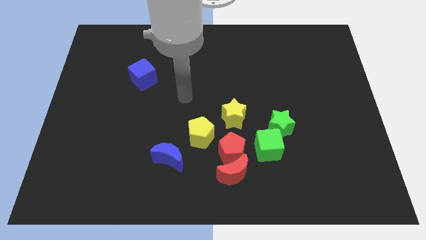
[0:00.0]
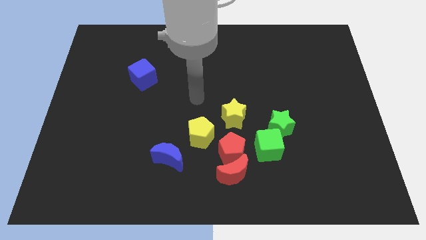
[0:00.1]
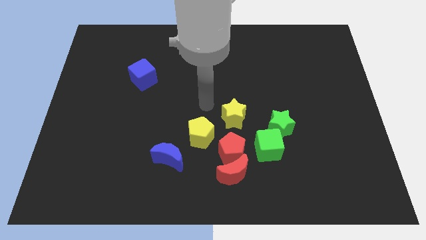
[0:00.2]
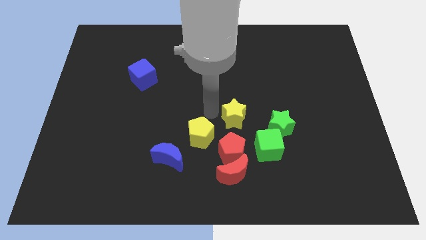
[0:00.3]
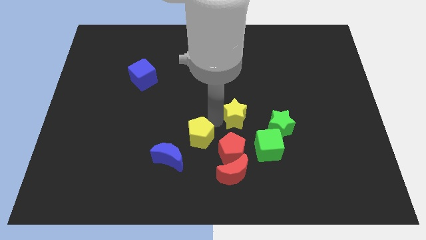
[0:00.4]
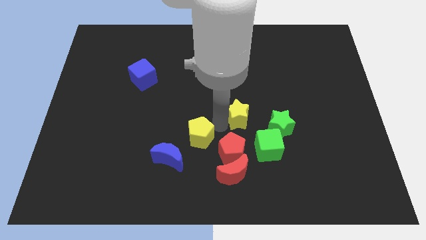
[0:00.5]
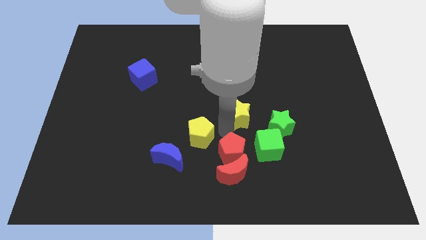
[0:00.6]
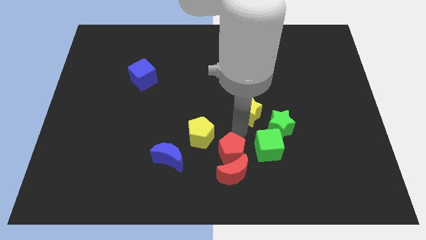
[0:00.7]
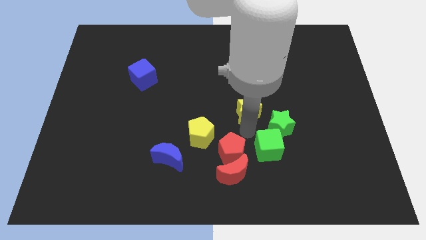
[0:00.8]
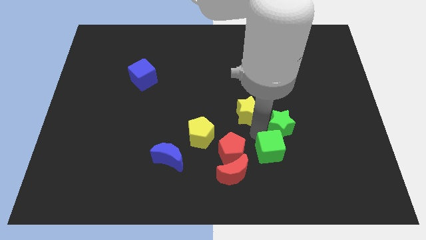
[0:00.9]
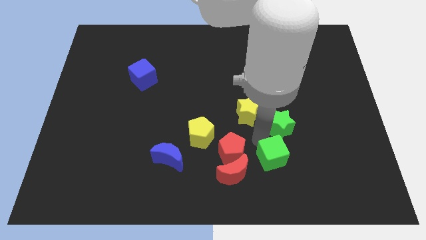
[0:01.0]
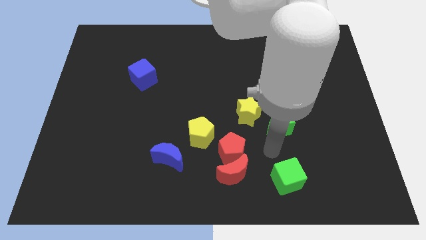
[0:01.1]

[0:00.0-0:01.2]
move the green star away from the green cube

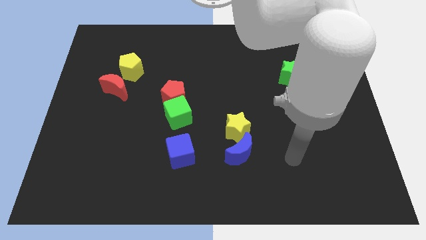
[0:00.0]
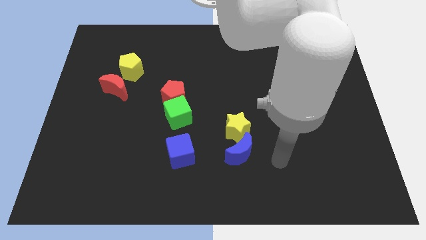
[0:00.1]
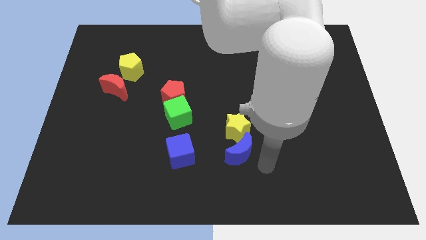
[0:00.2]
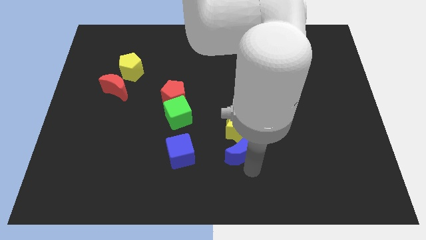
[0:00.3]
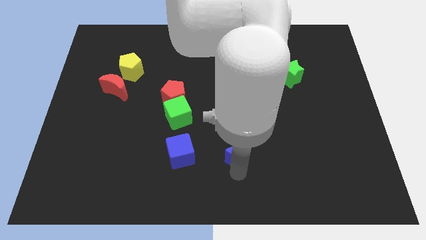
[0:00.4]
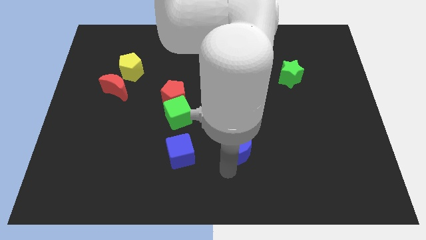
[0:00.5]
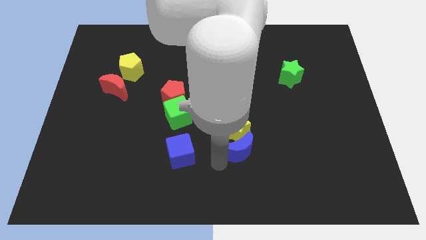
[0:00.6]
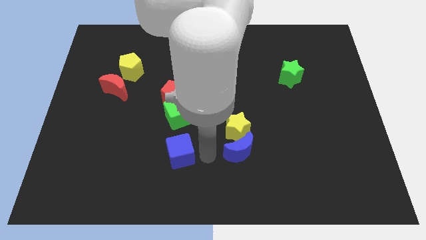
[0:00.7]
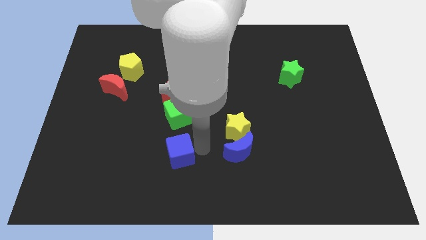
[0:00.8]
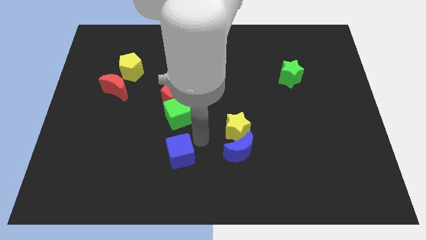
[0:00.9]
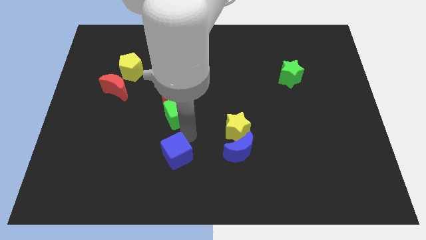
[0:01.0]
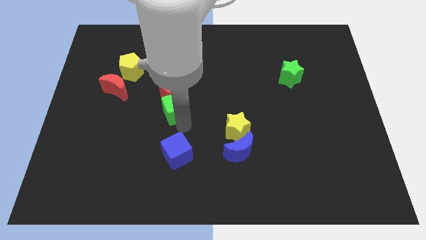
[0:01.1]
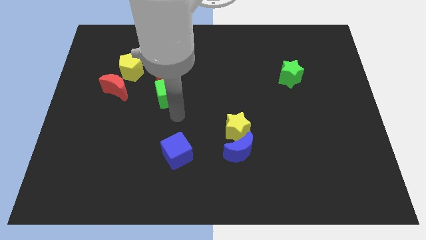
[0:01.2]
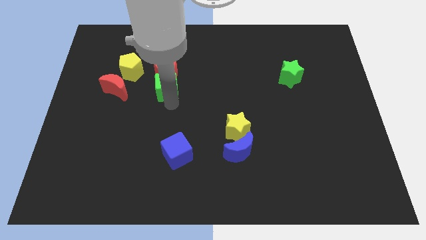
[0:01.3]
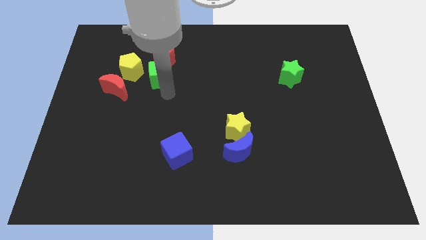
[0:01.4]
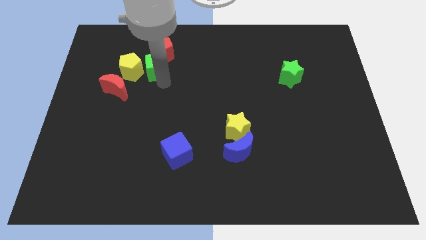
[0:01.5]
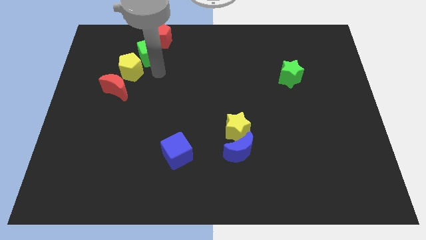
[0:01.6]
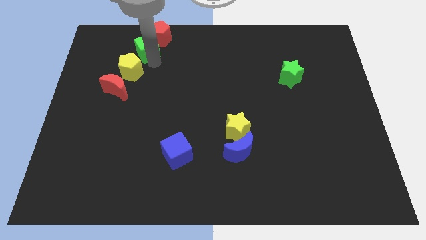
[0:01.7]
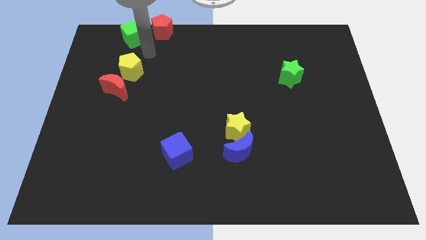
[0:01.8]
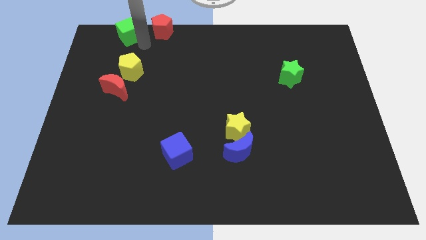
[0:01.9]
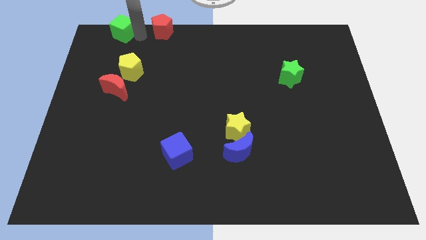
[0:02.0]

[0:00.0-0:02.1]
move the red pentagon away from the green cube

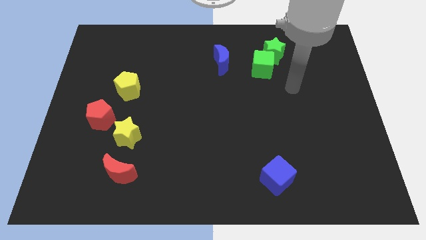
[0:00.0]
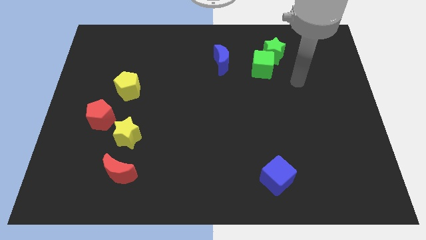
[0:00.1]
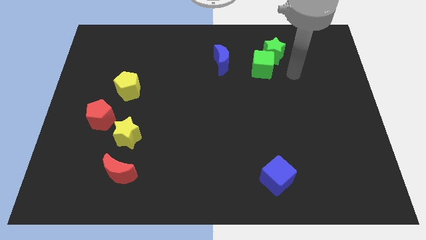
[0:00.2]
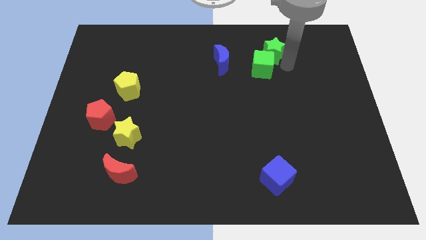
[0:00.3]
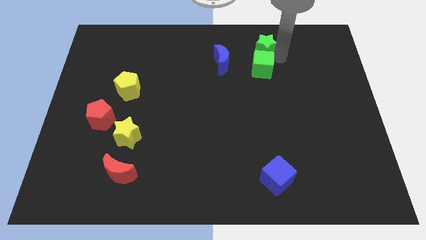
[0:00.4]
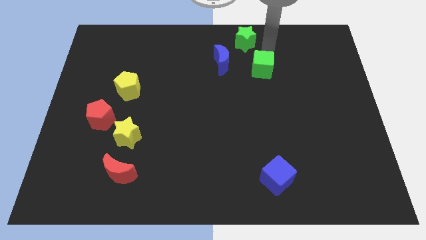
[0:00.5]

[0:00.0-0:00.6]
pull the green cube apart from the green star

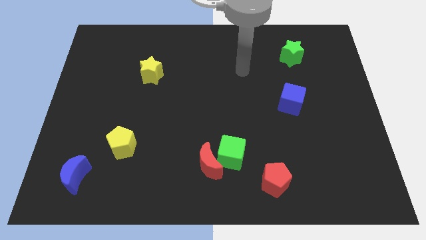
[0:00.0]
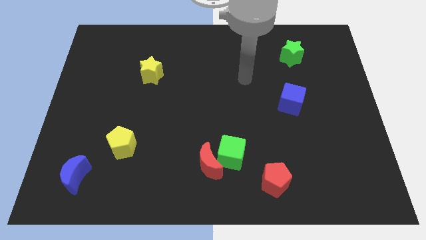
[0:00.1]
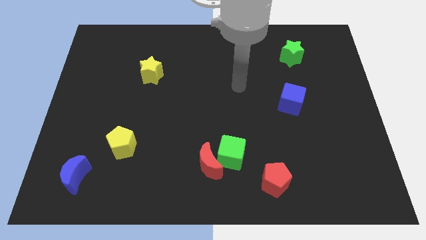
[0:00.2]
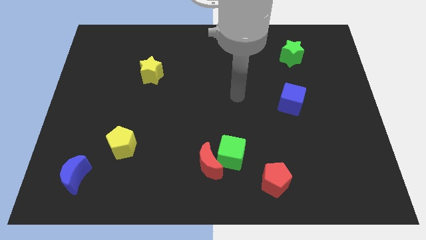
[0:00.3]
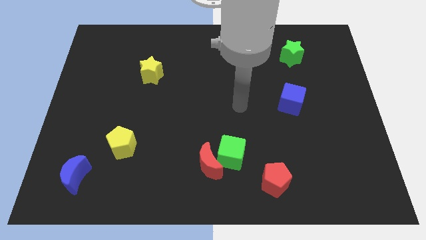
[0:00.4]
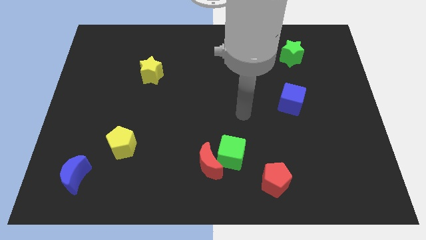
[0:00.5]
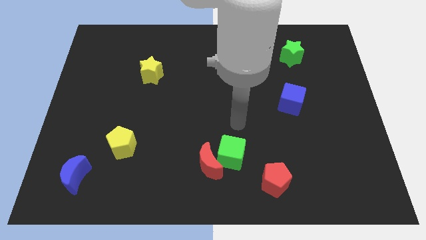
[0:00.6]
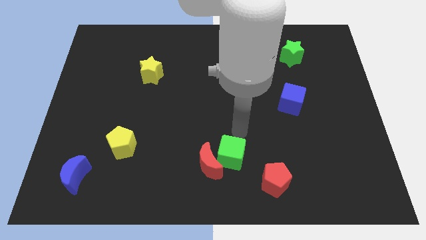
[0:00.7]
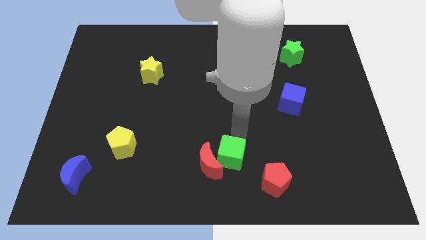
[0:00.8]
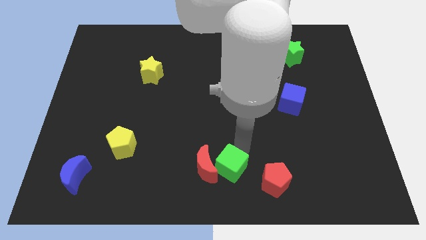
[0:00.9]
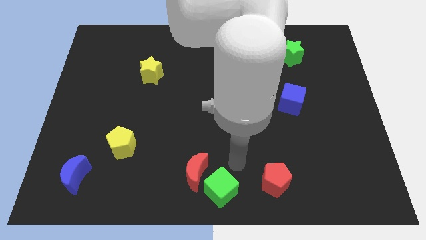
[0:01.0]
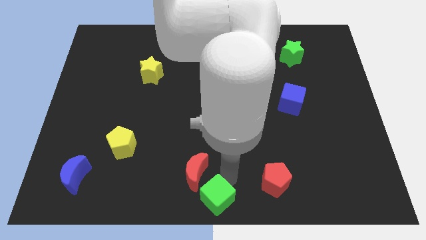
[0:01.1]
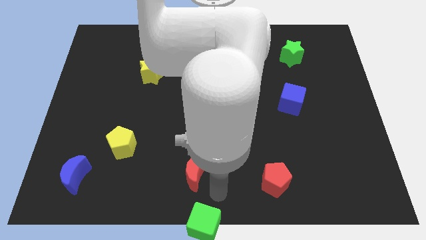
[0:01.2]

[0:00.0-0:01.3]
pull the red moon apart from the green cube

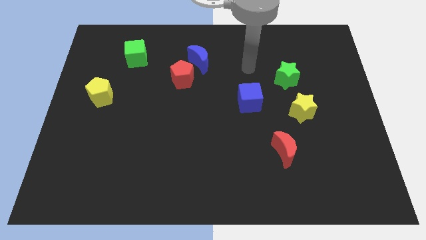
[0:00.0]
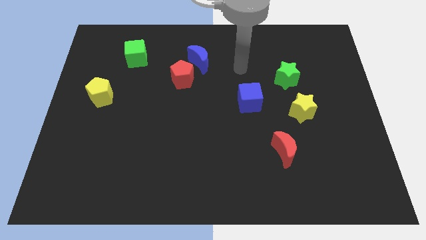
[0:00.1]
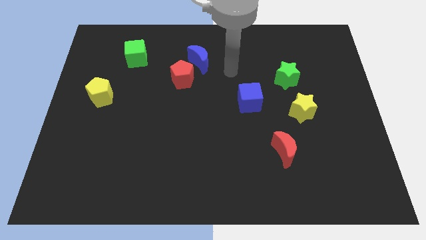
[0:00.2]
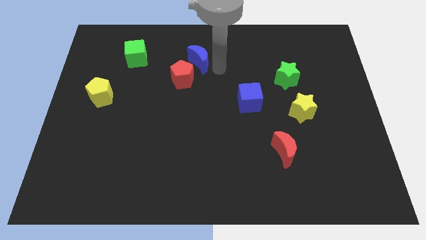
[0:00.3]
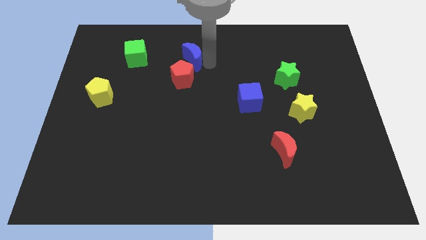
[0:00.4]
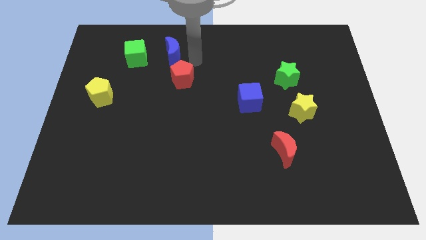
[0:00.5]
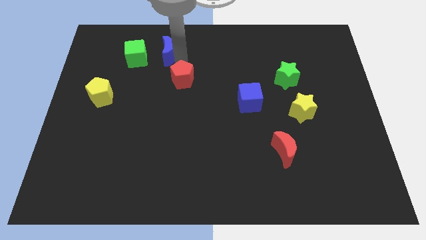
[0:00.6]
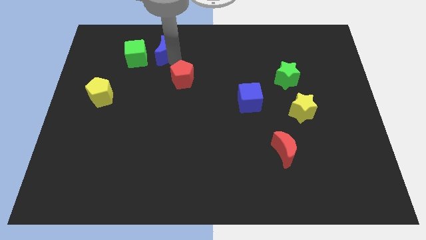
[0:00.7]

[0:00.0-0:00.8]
move the red pentagon away from the blue moon

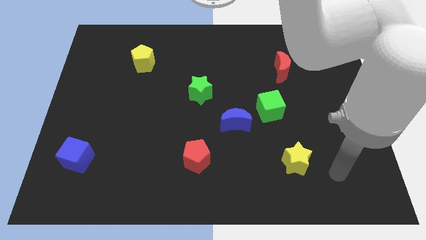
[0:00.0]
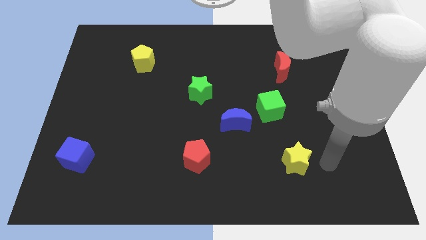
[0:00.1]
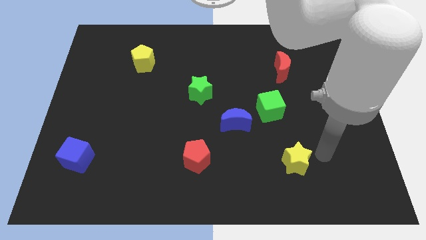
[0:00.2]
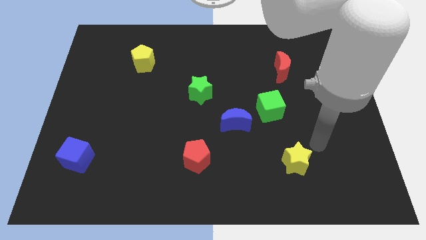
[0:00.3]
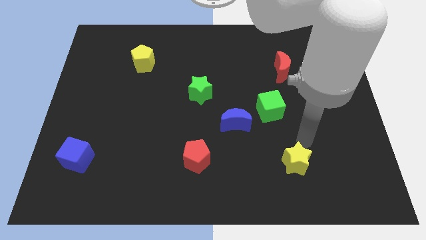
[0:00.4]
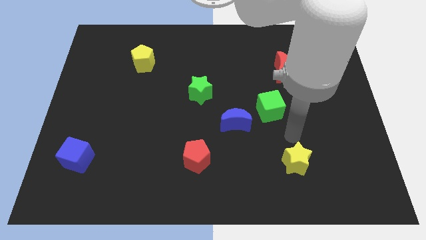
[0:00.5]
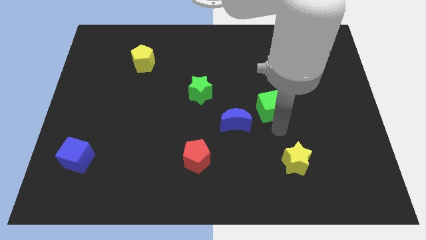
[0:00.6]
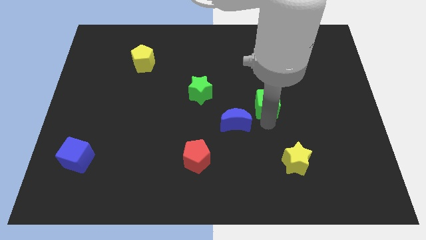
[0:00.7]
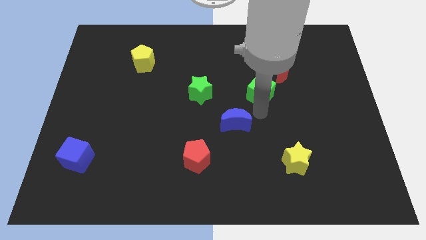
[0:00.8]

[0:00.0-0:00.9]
pull the blue moon apart from the green cube

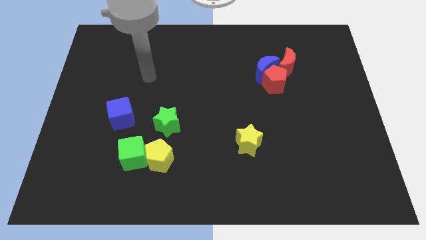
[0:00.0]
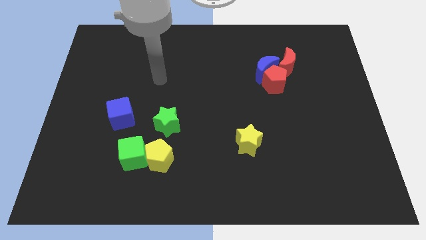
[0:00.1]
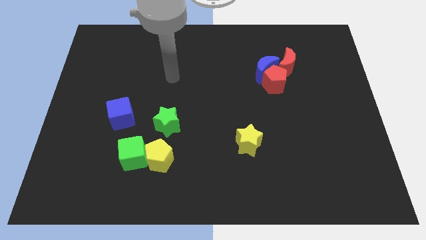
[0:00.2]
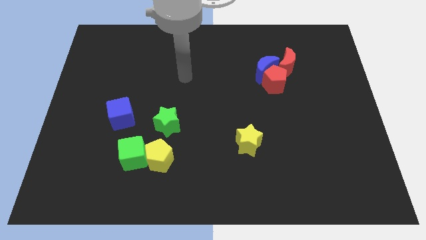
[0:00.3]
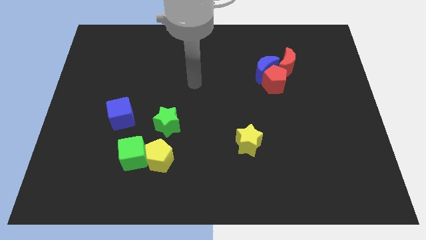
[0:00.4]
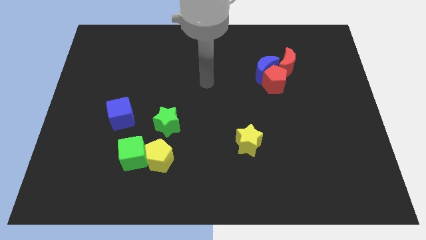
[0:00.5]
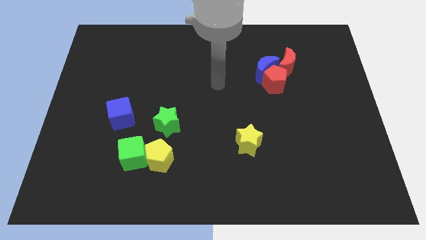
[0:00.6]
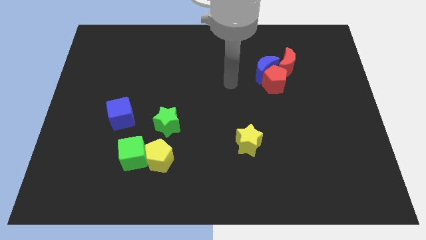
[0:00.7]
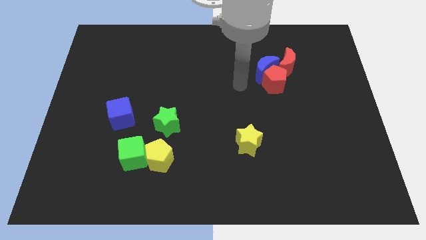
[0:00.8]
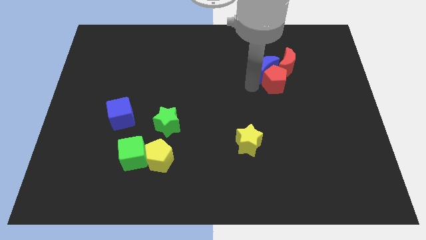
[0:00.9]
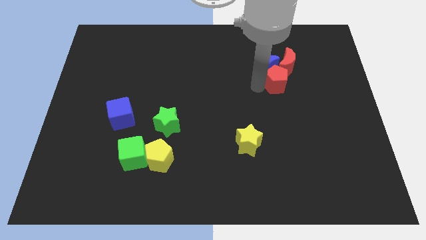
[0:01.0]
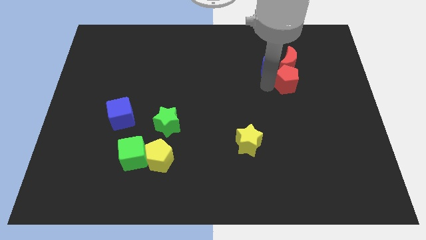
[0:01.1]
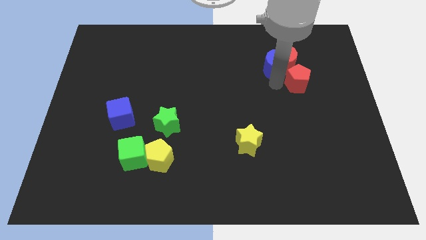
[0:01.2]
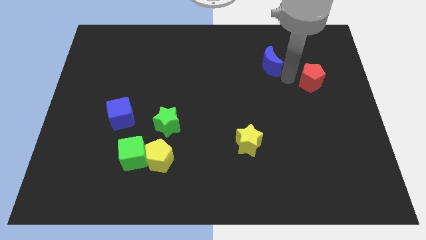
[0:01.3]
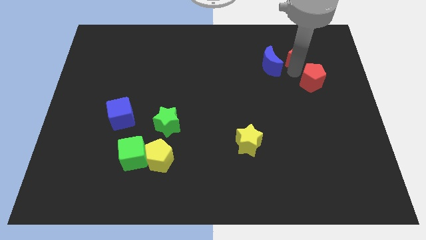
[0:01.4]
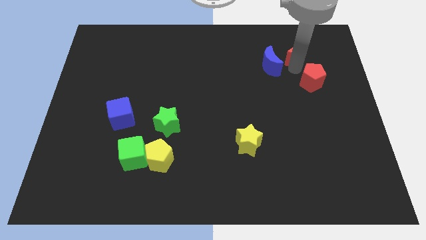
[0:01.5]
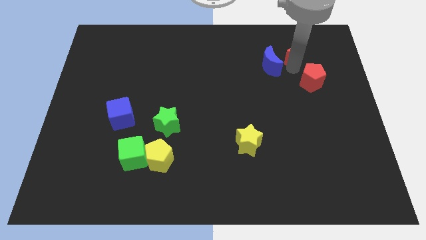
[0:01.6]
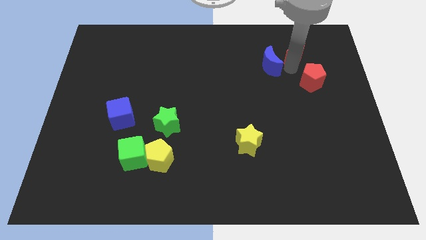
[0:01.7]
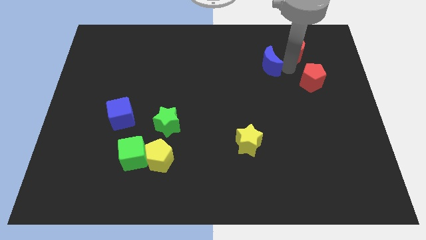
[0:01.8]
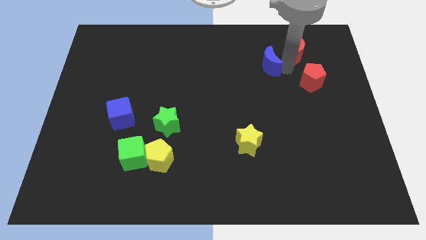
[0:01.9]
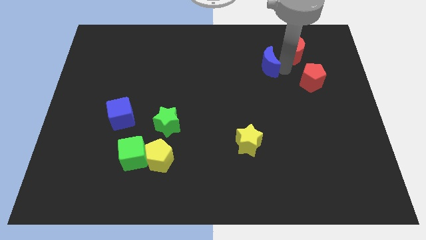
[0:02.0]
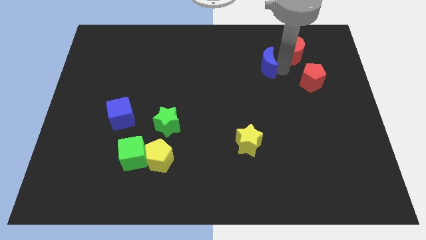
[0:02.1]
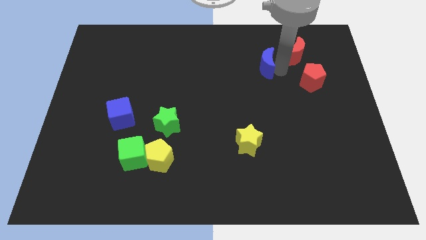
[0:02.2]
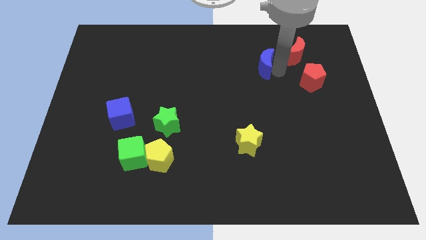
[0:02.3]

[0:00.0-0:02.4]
pull the blue moon apart from the red pentagon and red moon
